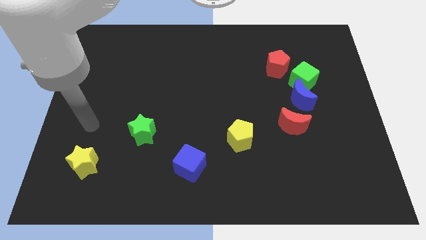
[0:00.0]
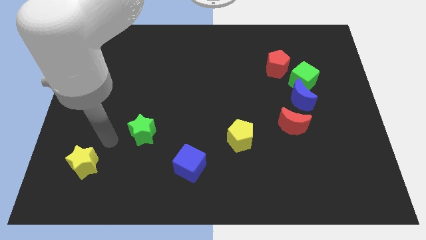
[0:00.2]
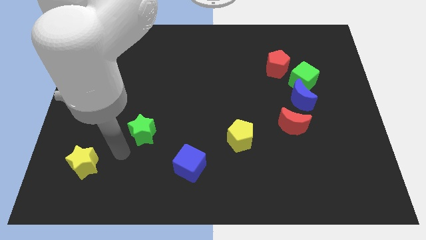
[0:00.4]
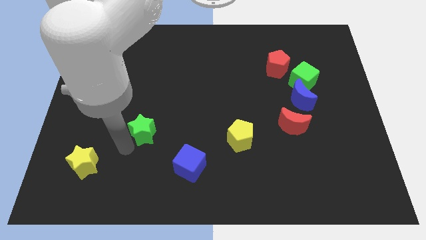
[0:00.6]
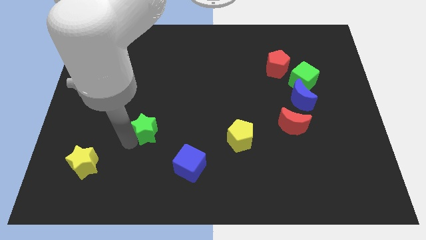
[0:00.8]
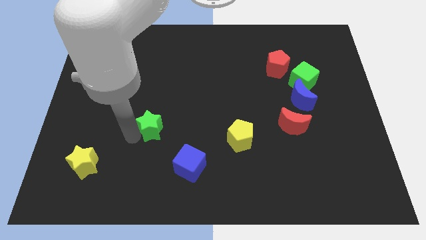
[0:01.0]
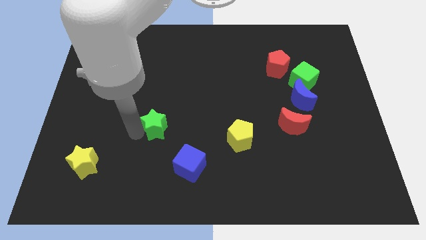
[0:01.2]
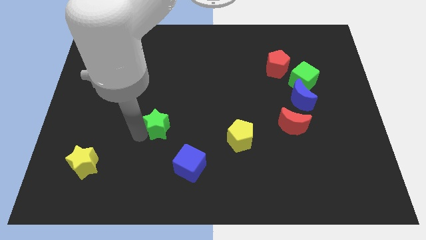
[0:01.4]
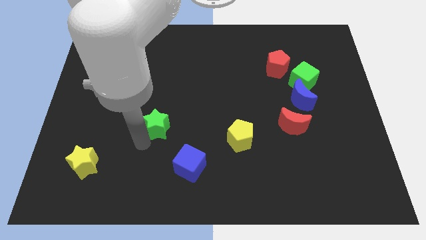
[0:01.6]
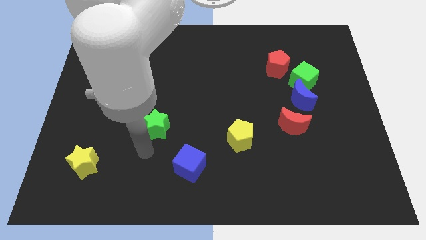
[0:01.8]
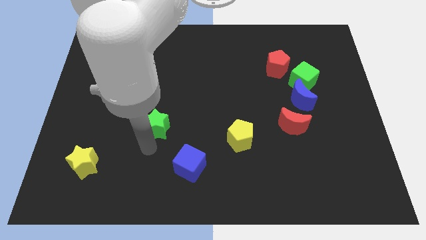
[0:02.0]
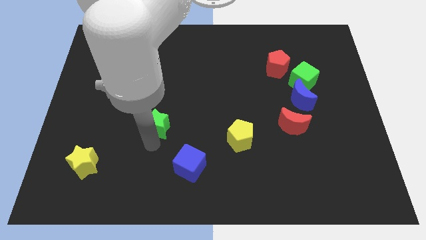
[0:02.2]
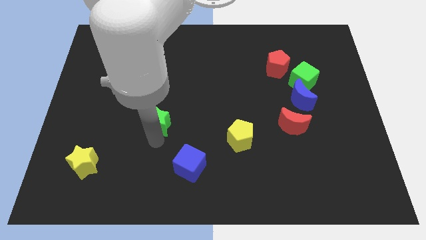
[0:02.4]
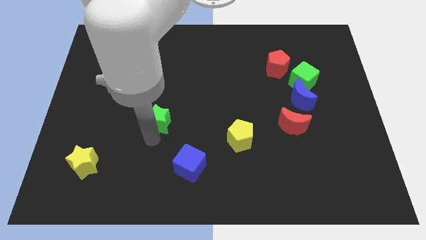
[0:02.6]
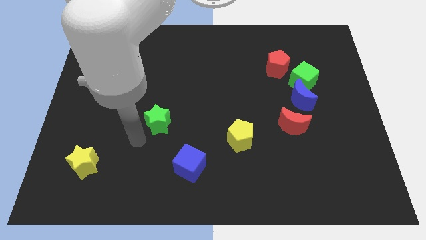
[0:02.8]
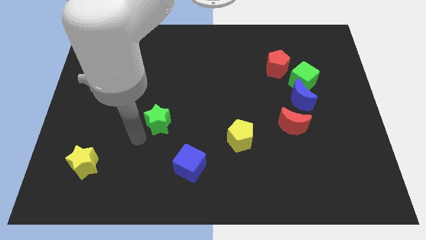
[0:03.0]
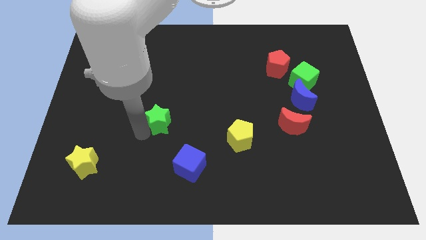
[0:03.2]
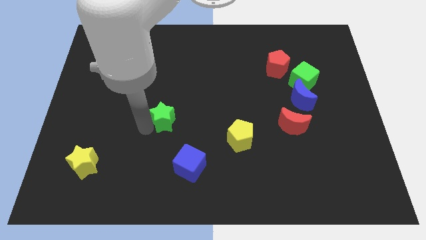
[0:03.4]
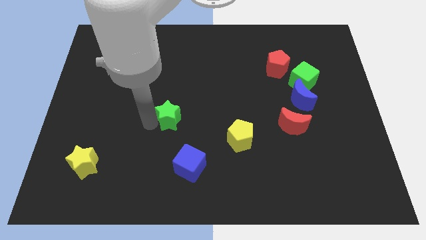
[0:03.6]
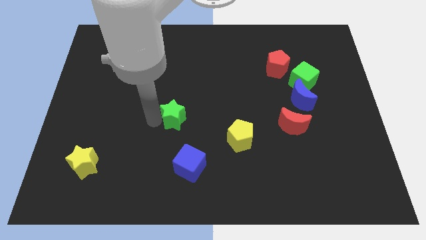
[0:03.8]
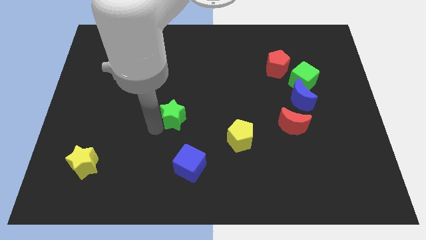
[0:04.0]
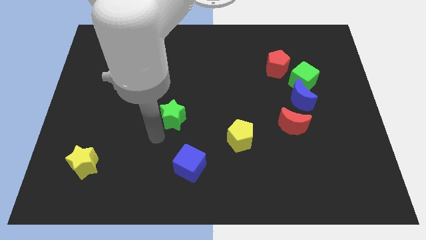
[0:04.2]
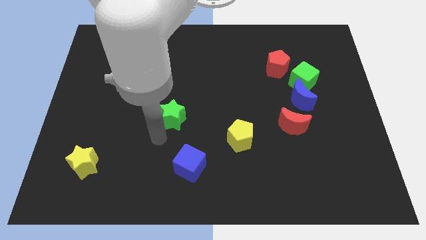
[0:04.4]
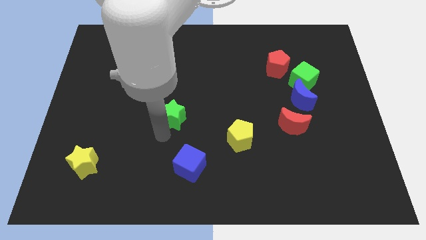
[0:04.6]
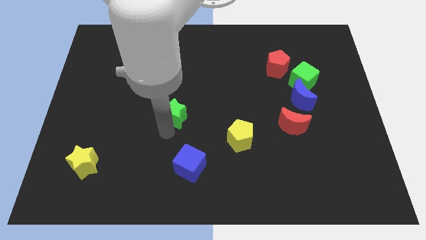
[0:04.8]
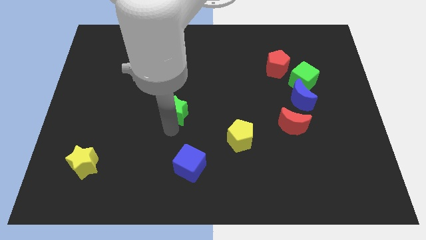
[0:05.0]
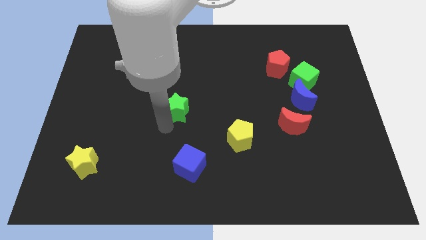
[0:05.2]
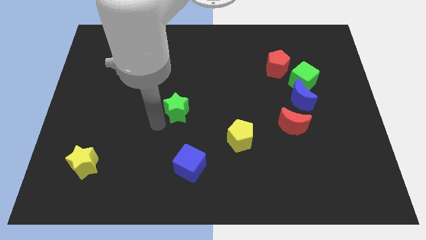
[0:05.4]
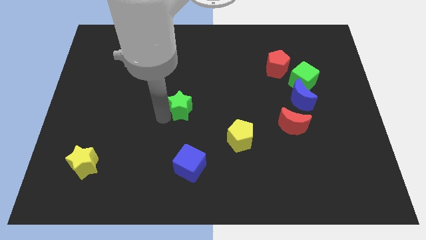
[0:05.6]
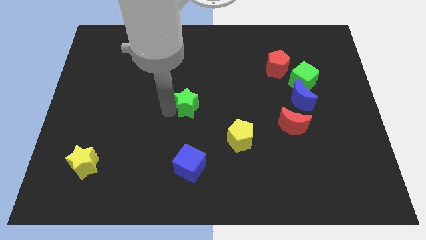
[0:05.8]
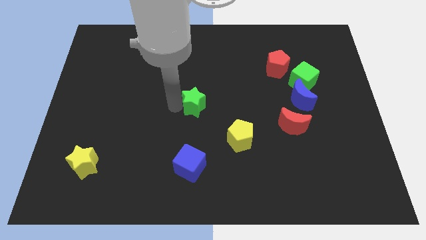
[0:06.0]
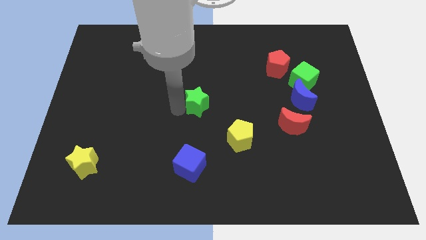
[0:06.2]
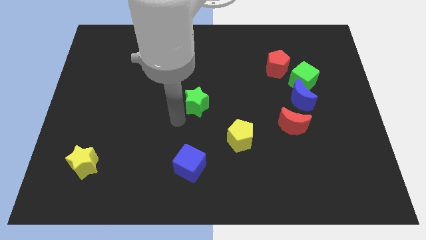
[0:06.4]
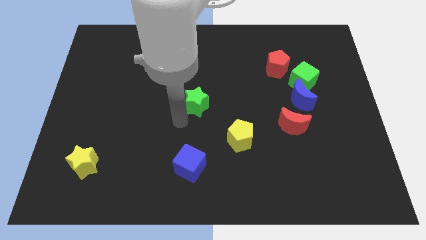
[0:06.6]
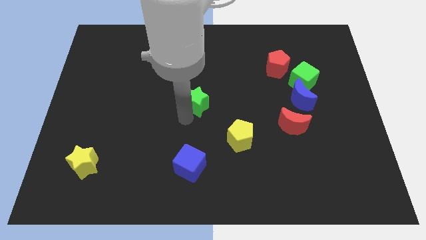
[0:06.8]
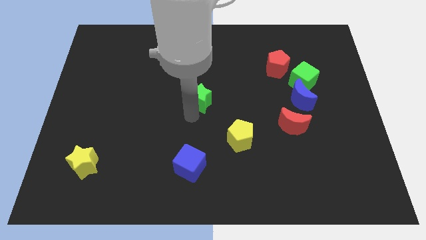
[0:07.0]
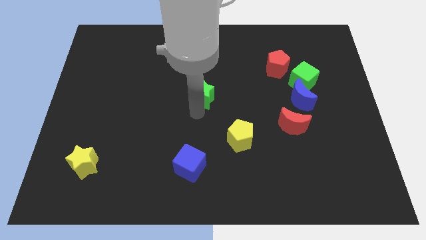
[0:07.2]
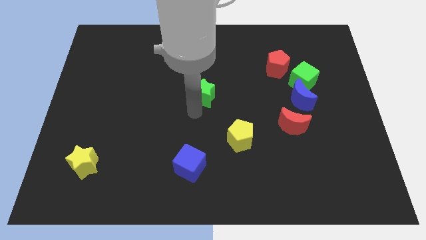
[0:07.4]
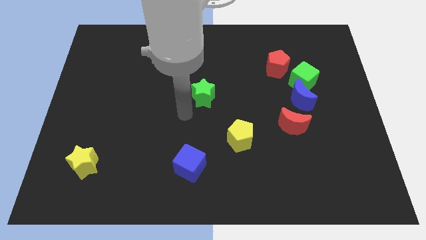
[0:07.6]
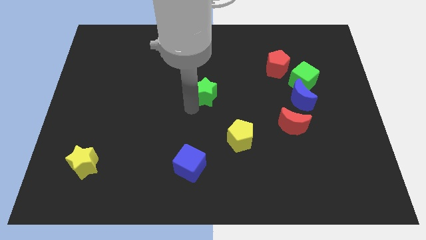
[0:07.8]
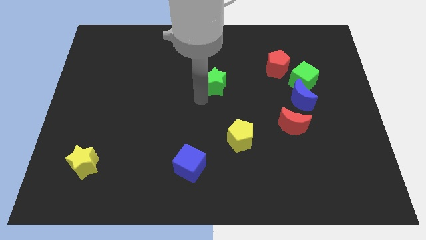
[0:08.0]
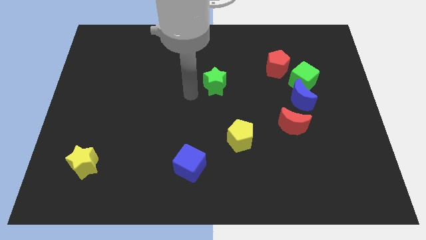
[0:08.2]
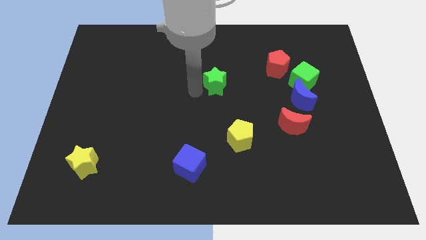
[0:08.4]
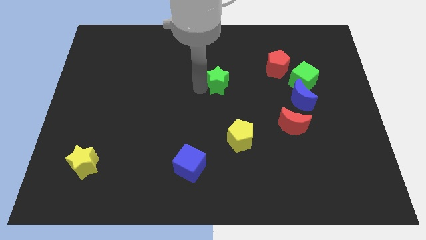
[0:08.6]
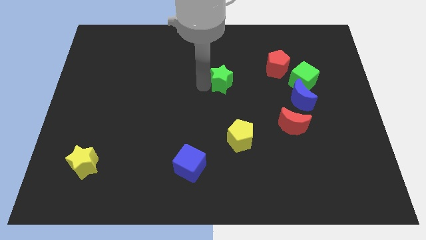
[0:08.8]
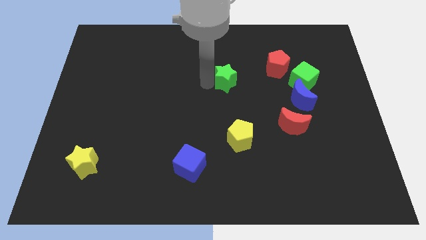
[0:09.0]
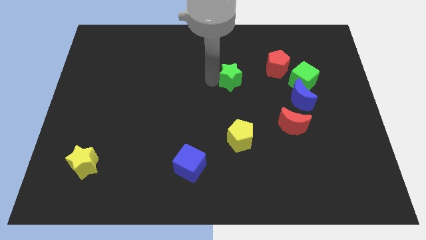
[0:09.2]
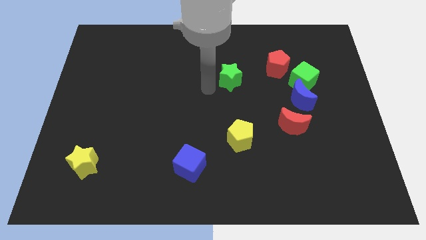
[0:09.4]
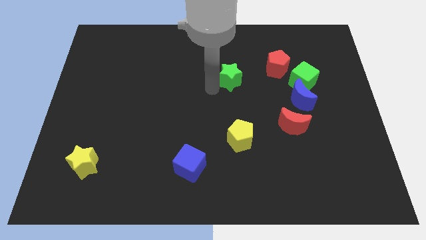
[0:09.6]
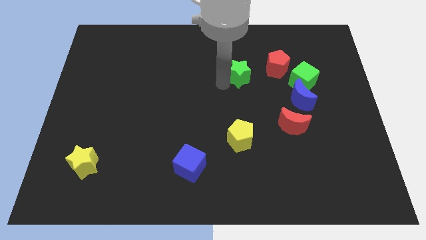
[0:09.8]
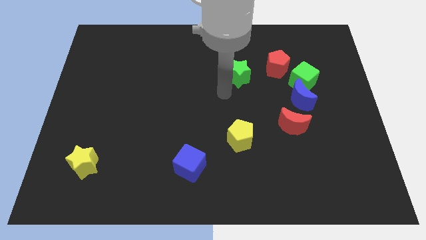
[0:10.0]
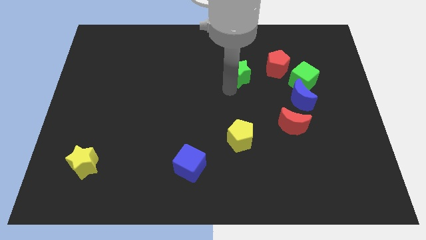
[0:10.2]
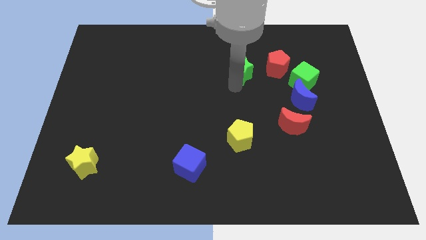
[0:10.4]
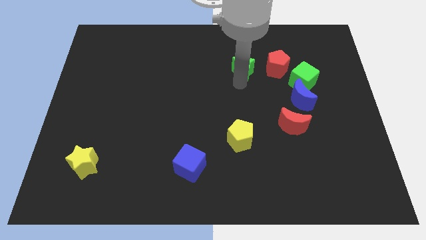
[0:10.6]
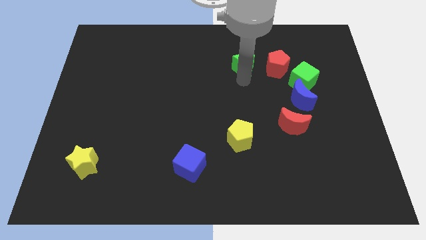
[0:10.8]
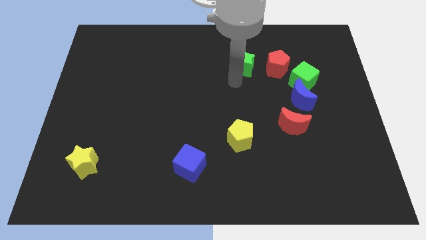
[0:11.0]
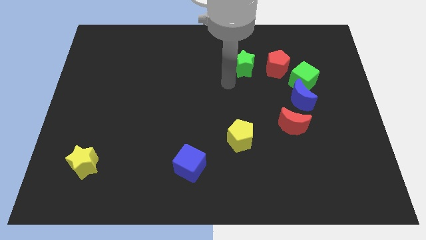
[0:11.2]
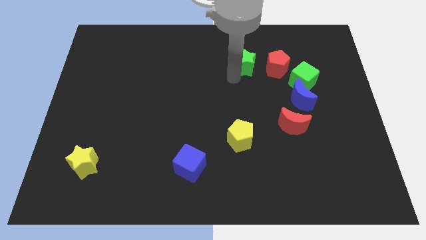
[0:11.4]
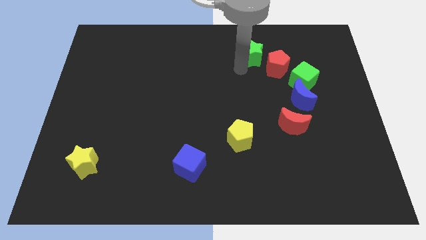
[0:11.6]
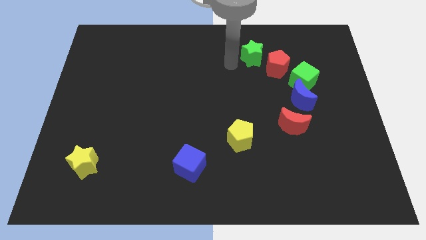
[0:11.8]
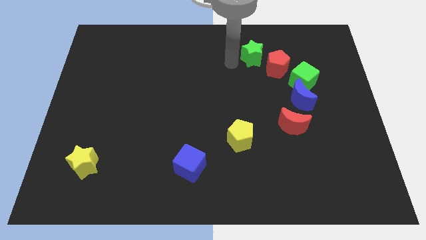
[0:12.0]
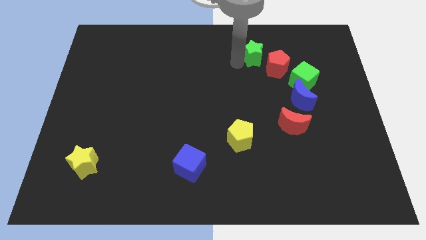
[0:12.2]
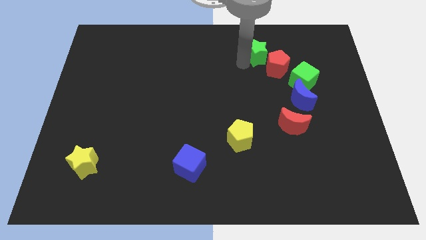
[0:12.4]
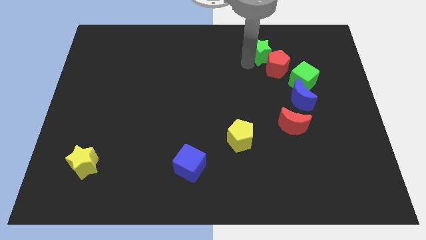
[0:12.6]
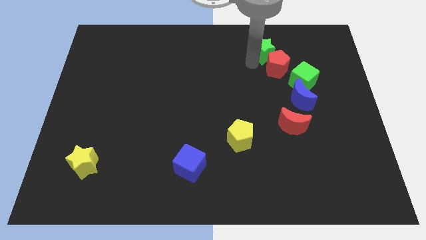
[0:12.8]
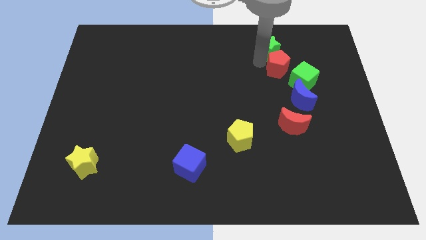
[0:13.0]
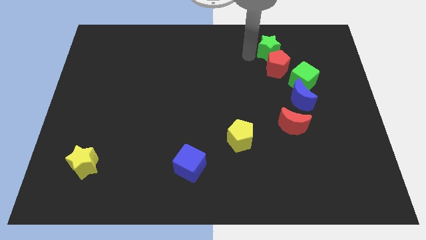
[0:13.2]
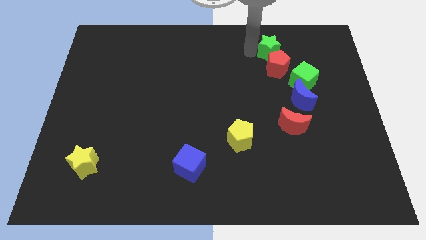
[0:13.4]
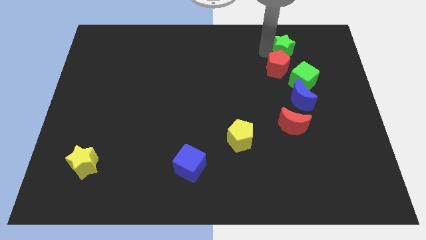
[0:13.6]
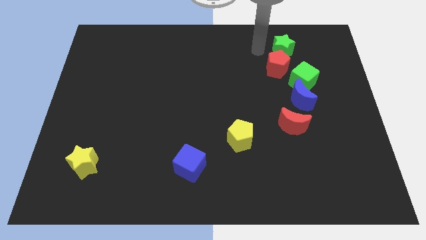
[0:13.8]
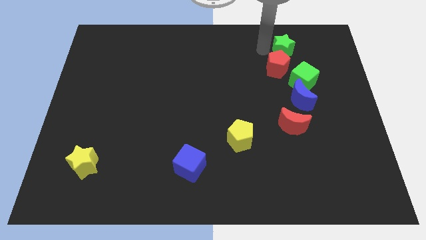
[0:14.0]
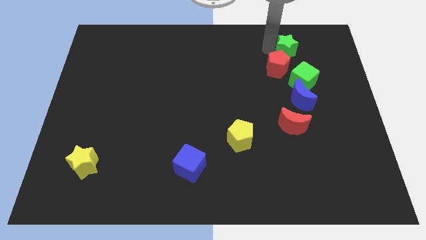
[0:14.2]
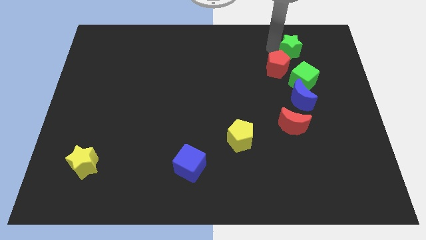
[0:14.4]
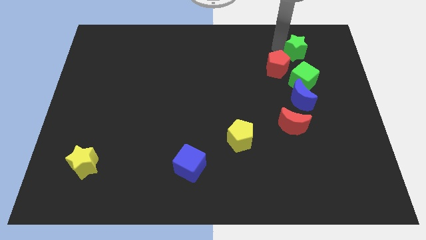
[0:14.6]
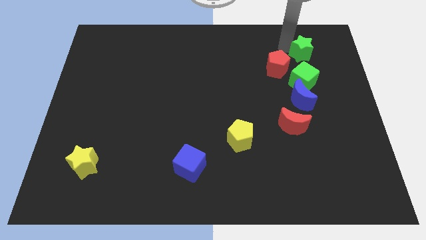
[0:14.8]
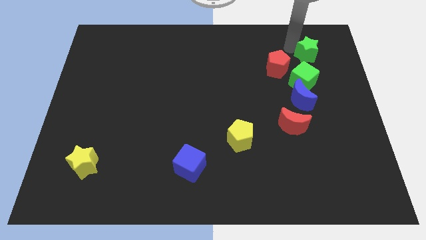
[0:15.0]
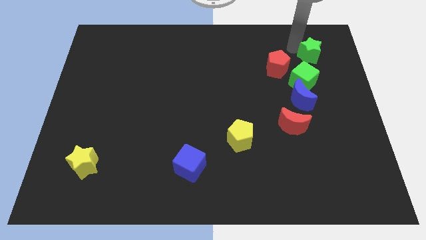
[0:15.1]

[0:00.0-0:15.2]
slide the green star diagonally up and to the right of the green cube
